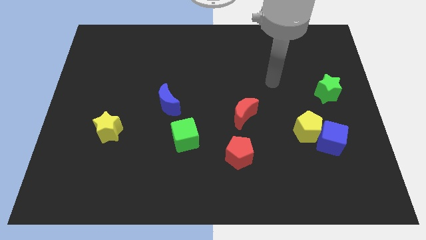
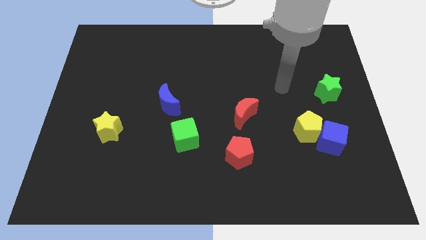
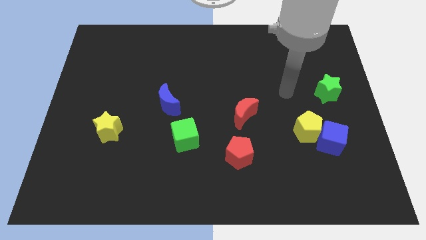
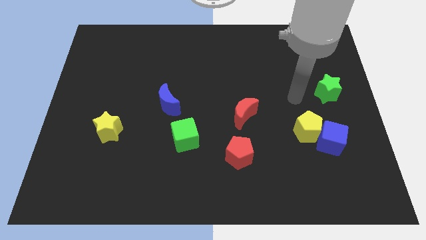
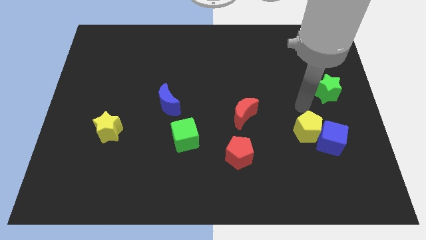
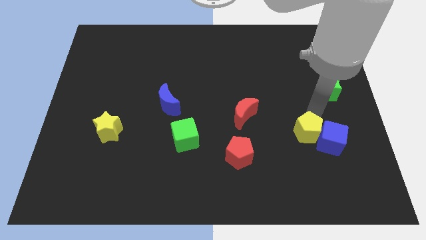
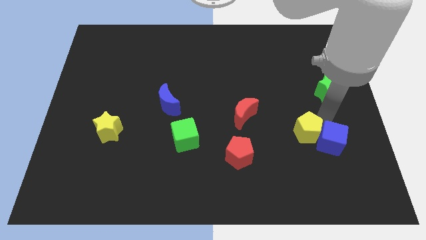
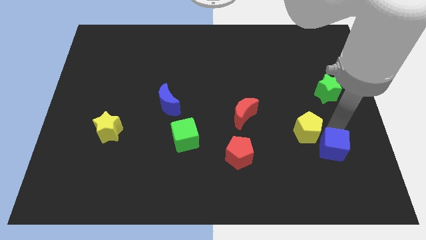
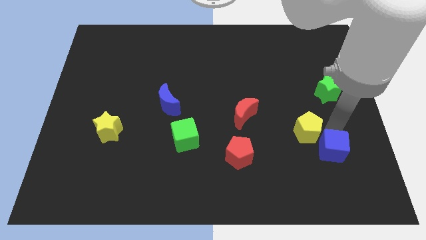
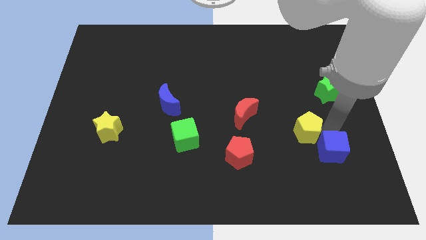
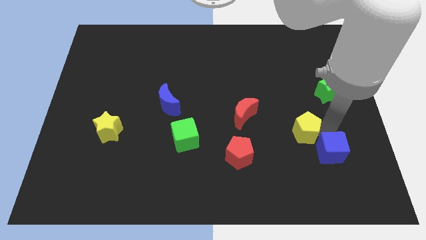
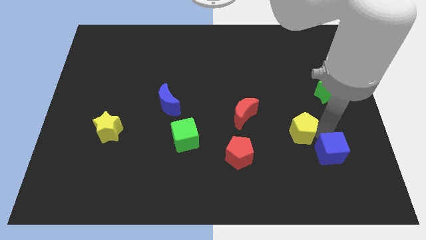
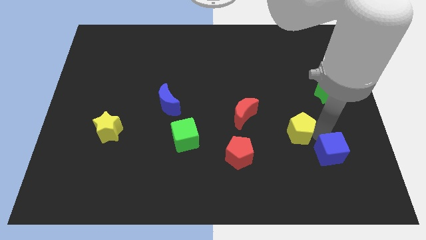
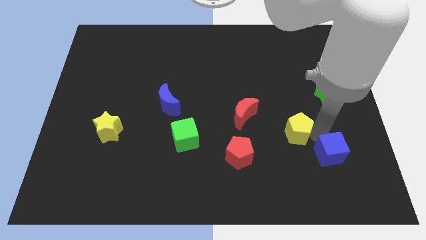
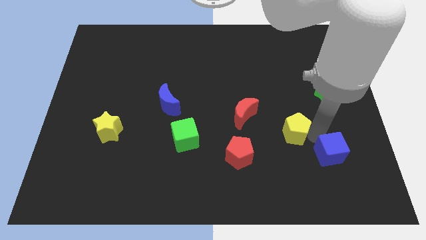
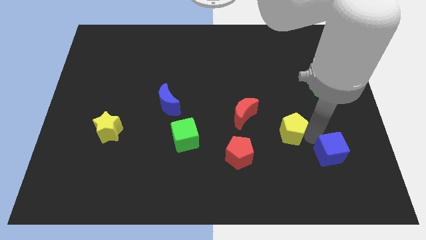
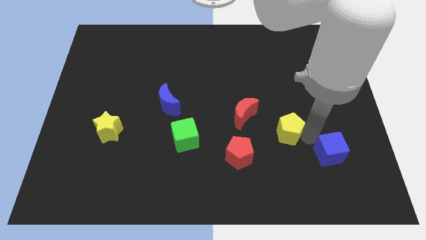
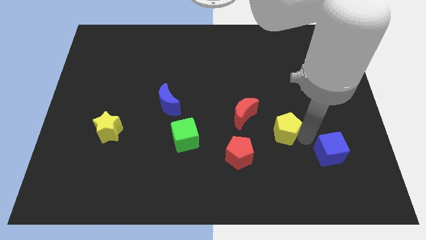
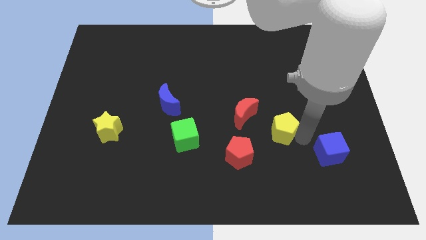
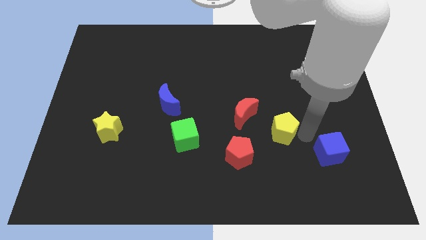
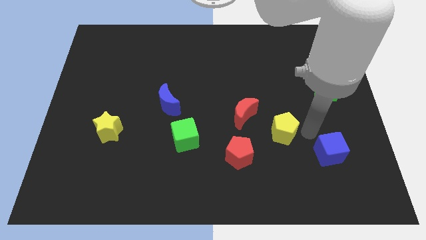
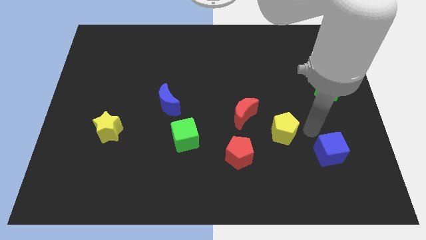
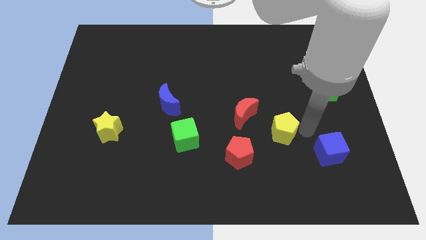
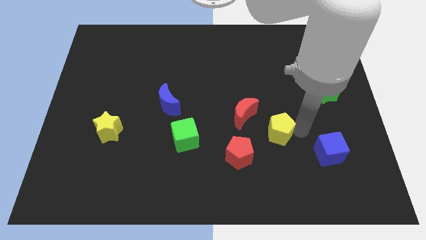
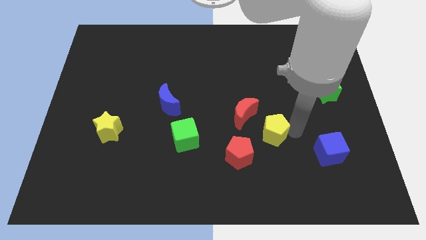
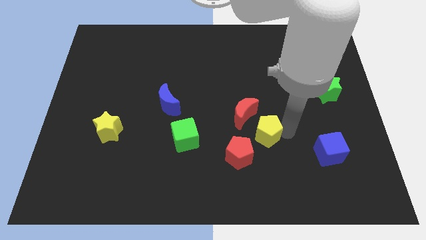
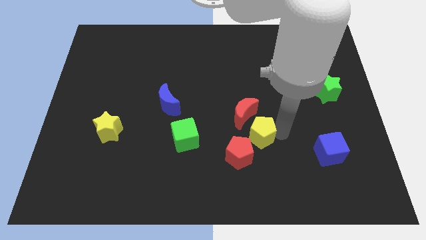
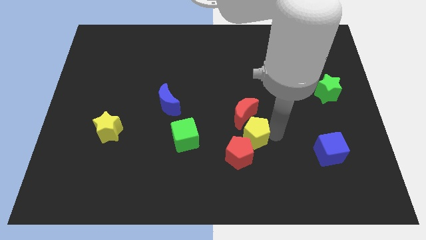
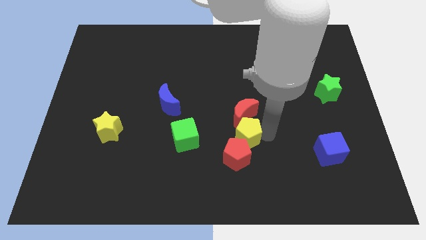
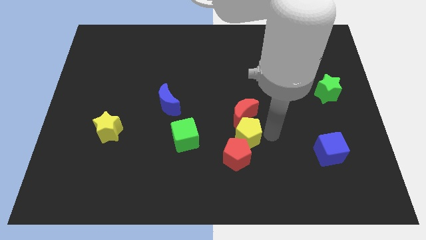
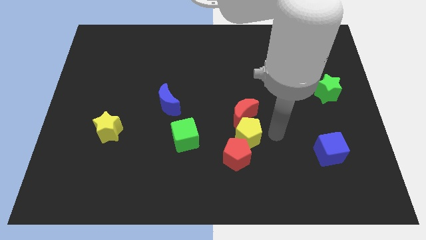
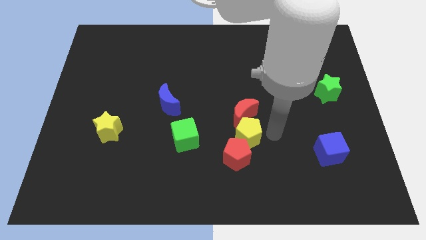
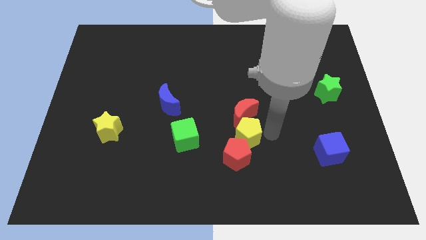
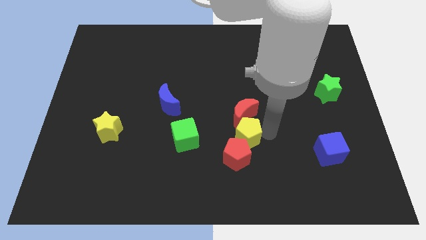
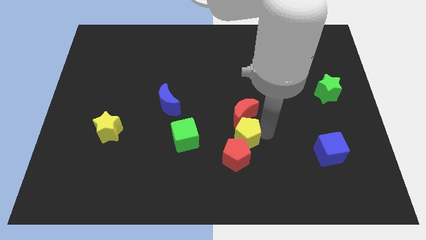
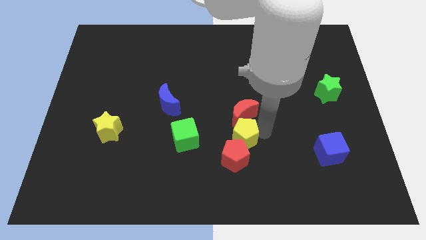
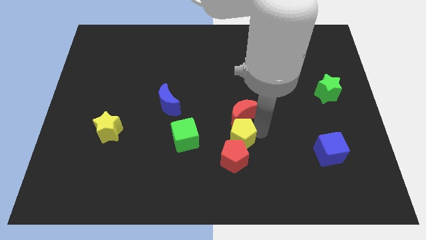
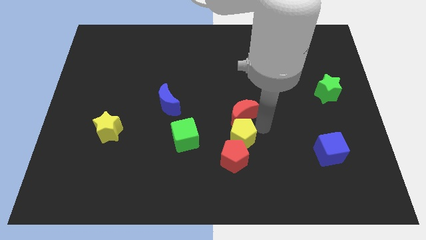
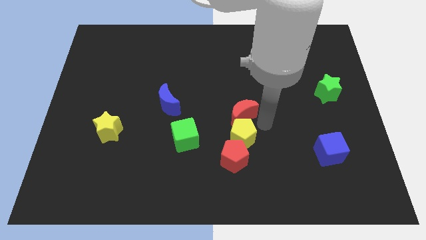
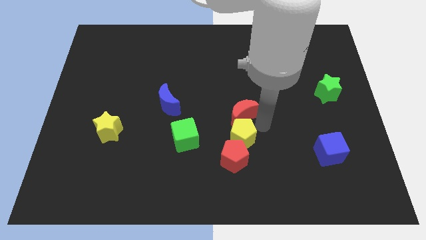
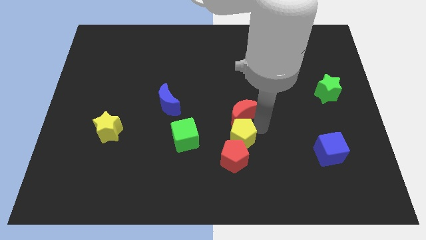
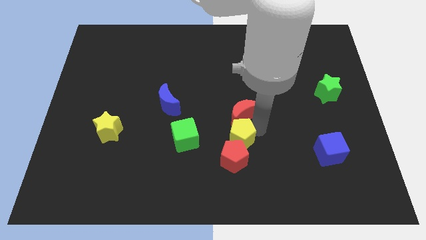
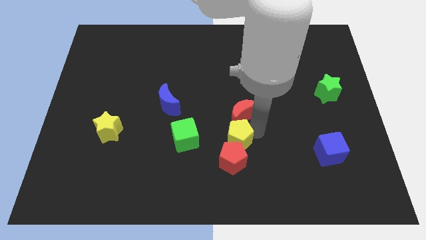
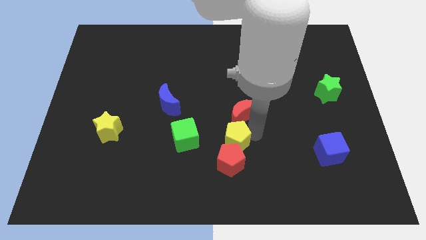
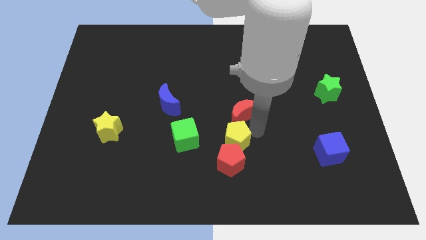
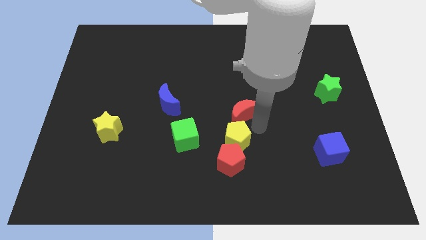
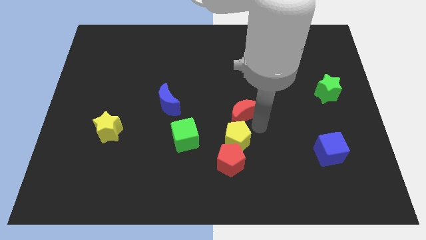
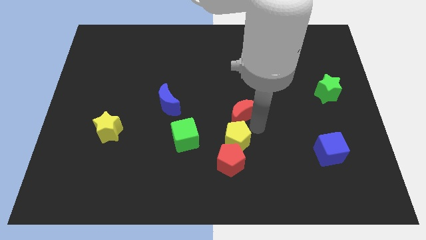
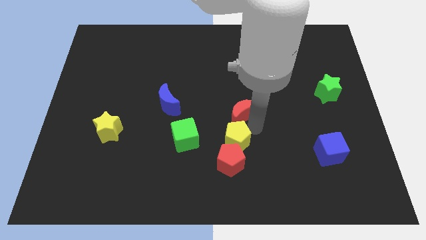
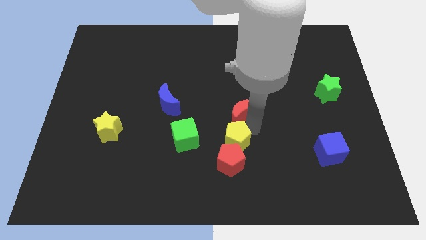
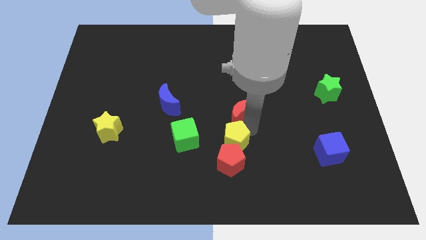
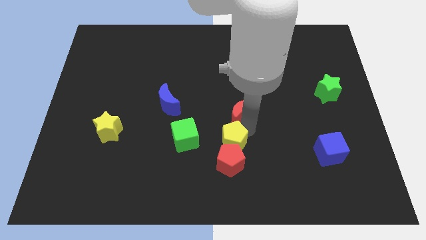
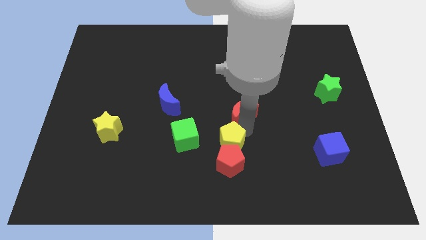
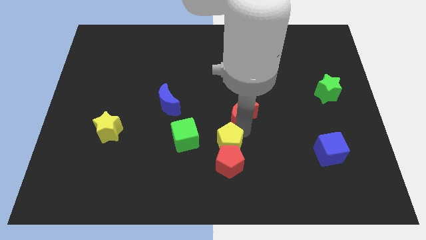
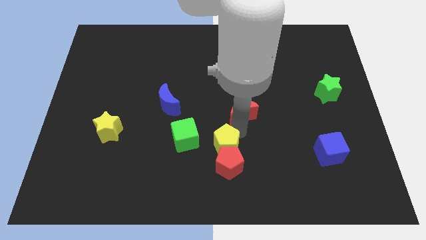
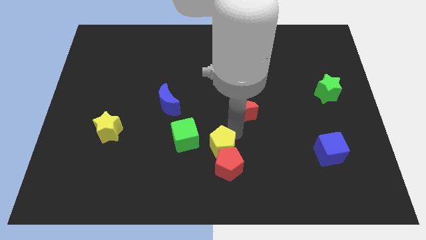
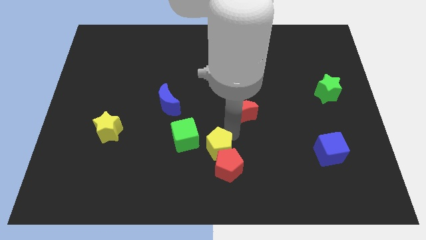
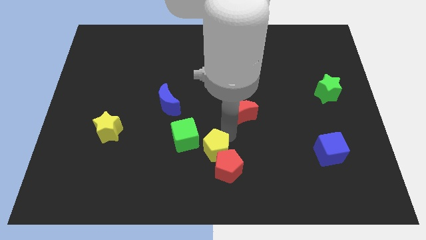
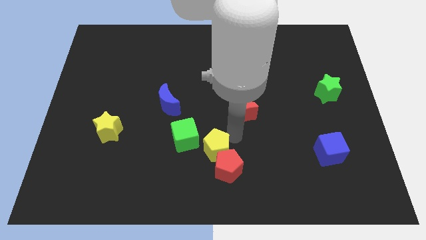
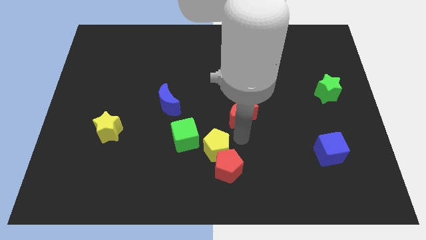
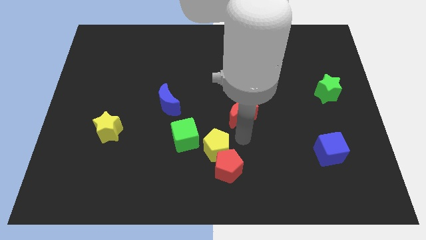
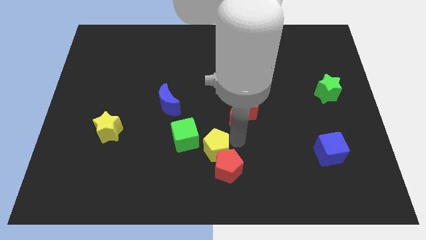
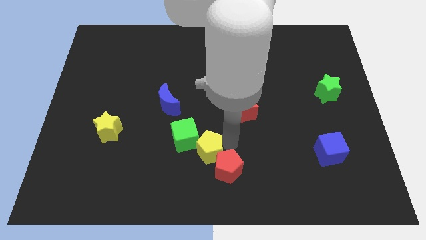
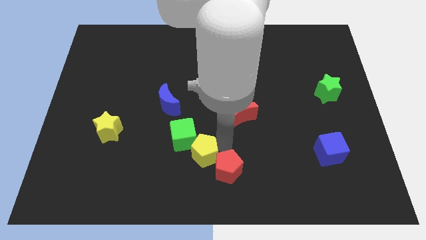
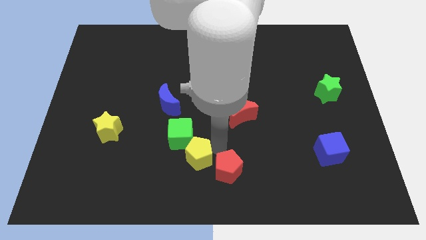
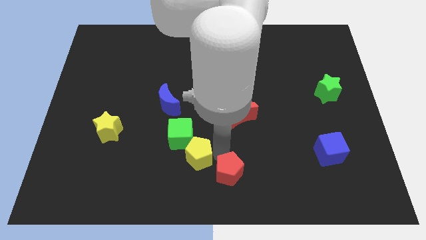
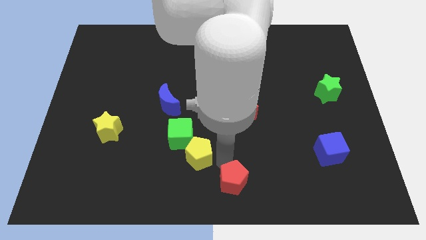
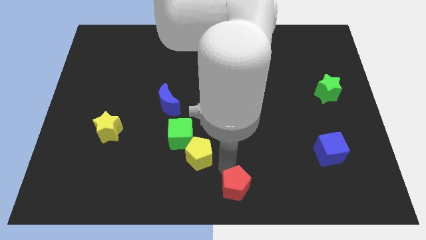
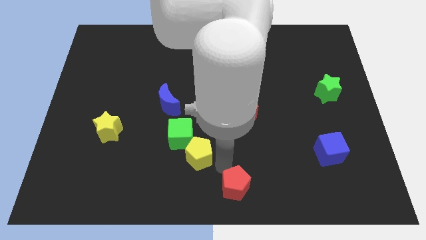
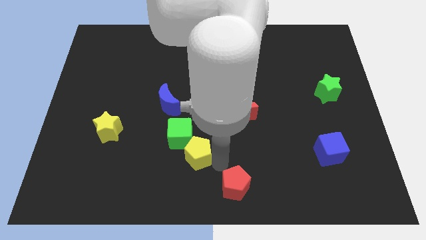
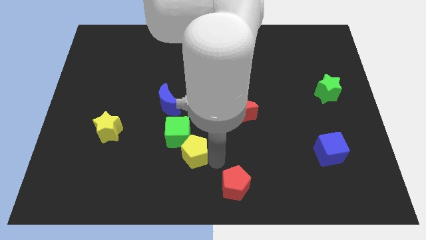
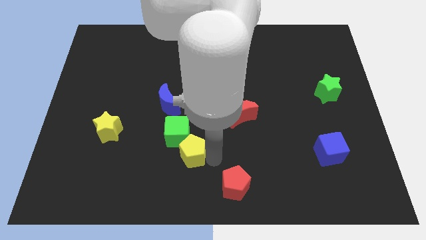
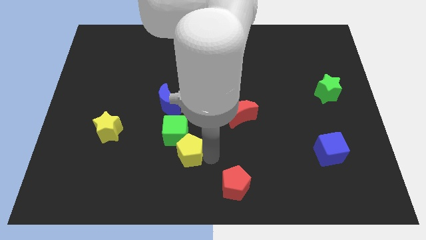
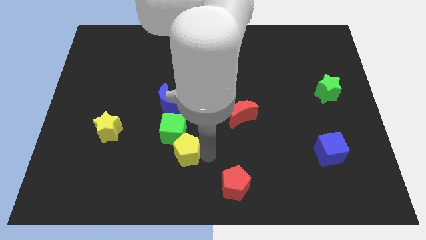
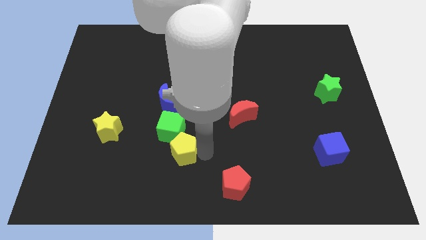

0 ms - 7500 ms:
slide the yellow pentagon below the blue moon

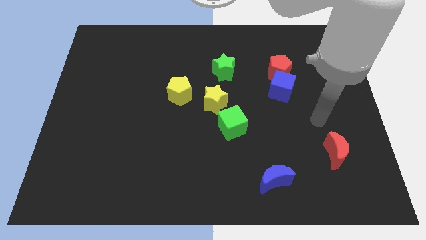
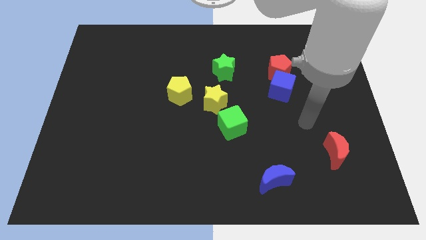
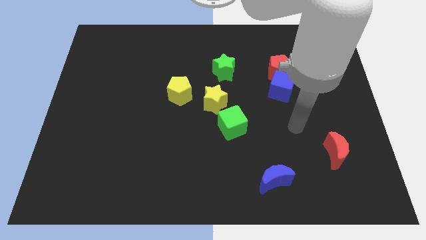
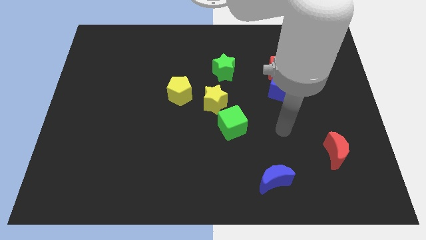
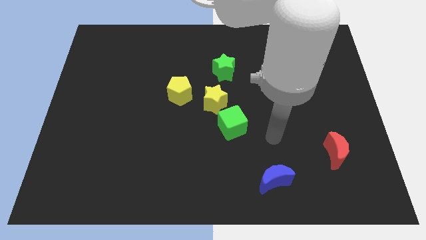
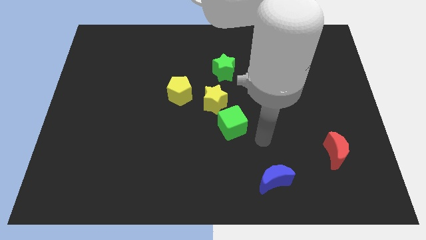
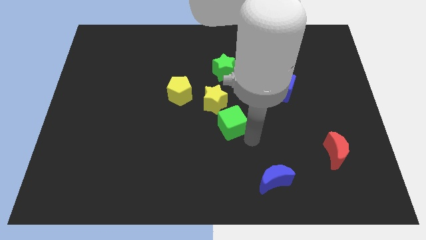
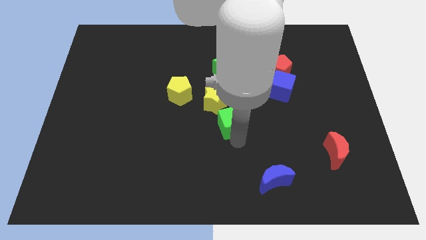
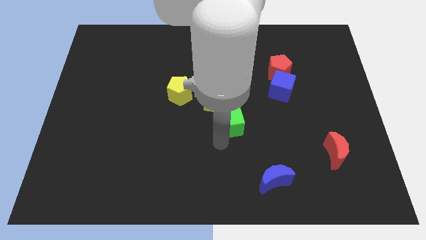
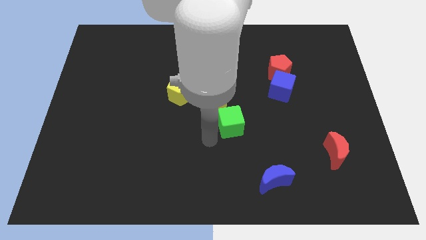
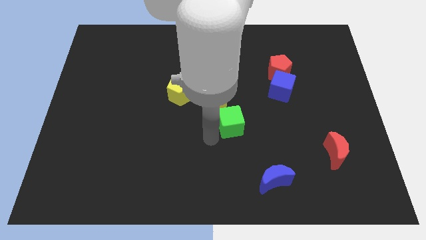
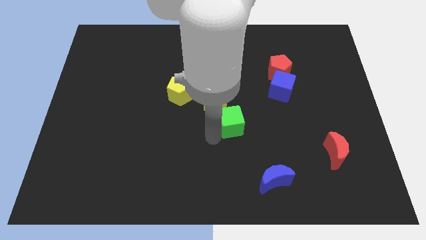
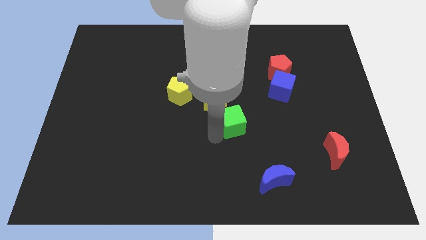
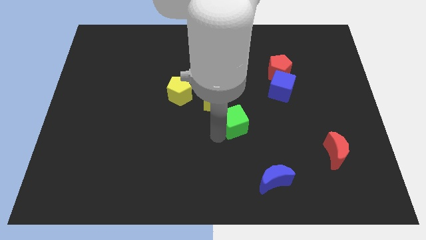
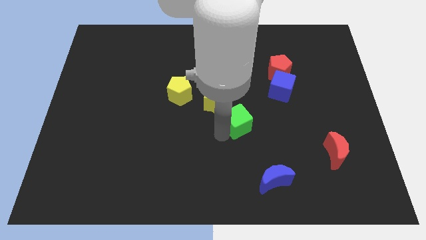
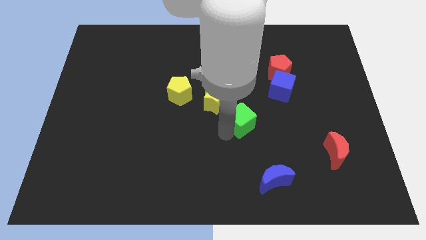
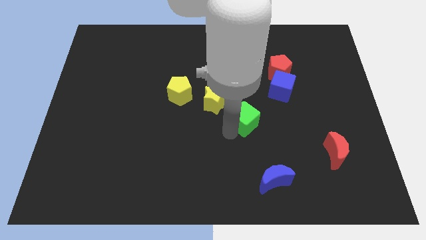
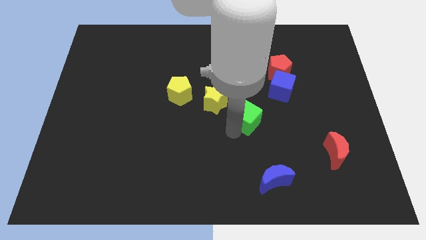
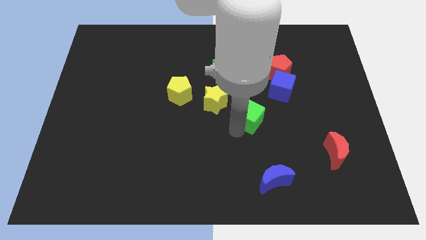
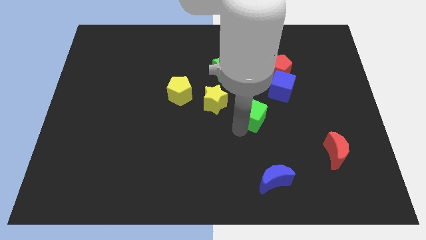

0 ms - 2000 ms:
move the green cube to the right of the yellow star
